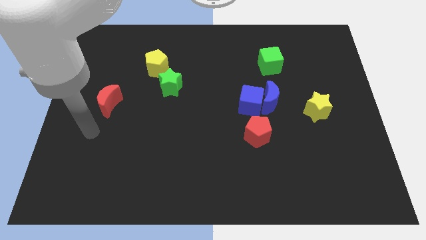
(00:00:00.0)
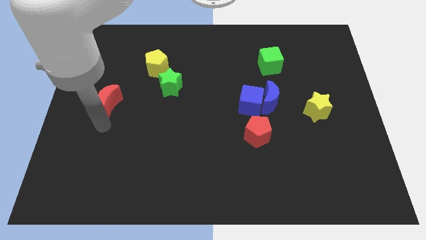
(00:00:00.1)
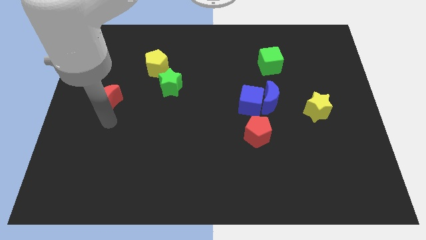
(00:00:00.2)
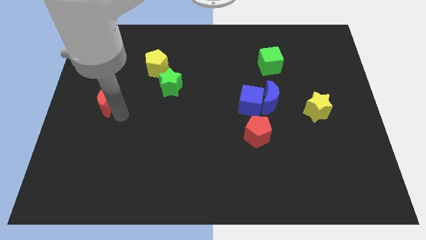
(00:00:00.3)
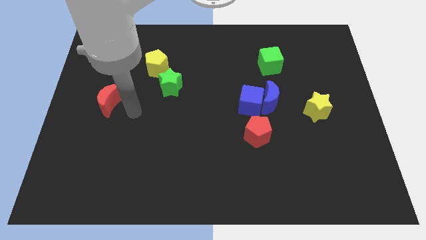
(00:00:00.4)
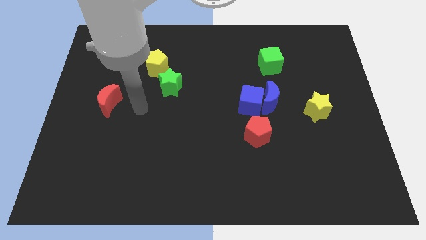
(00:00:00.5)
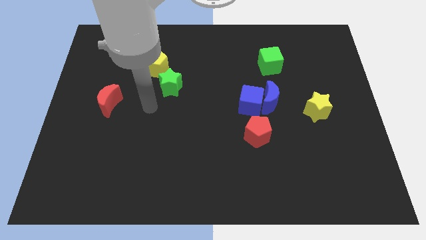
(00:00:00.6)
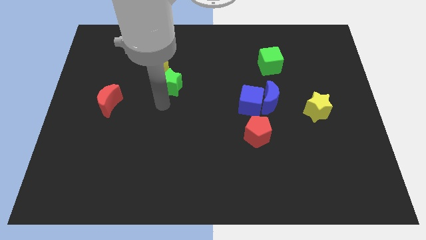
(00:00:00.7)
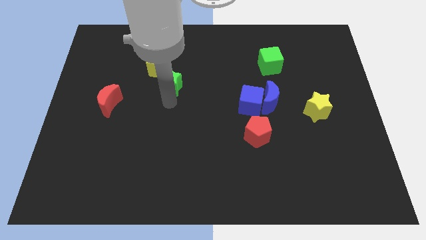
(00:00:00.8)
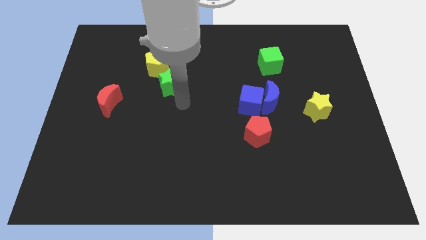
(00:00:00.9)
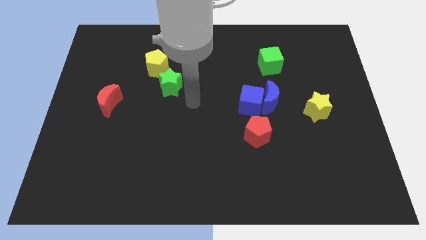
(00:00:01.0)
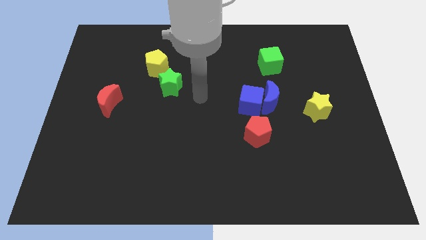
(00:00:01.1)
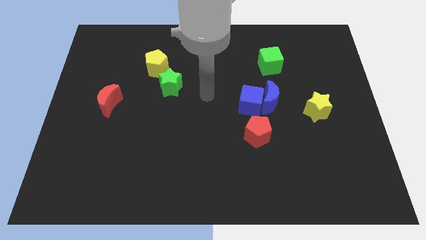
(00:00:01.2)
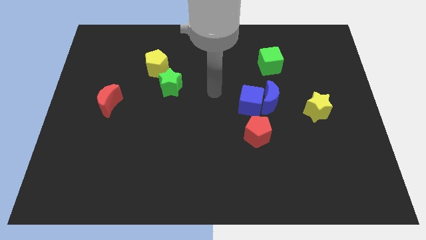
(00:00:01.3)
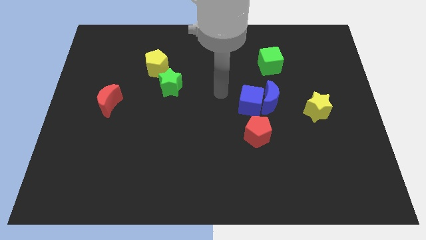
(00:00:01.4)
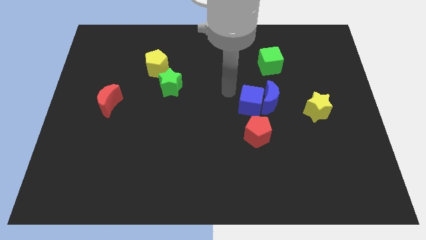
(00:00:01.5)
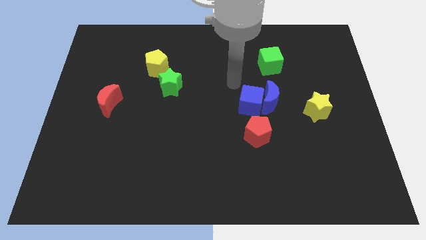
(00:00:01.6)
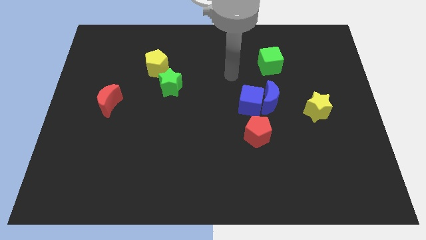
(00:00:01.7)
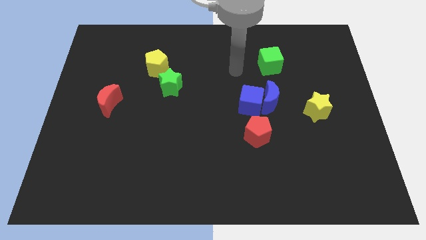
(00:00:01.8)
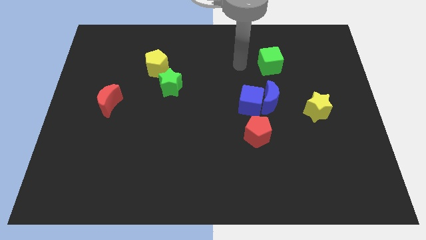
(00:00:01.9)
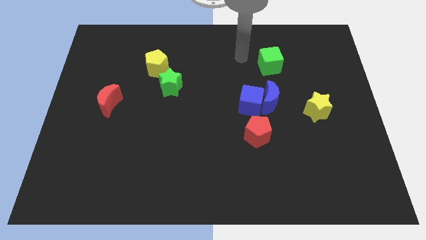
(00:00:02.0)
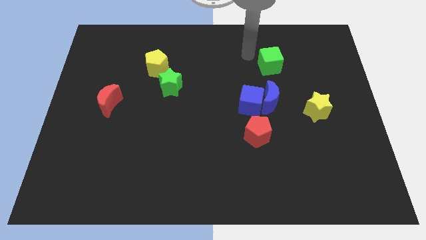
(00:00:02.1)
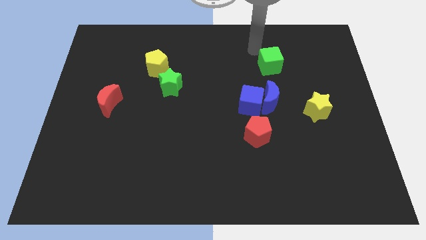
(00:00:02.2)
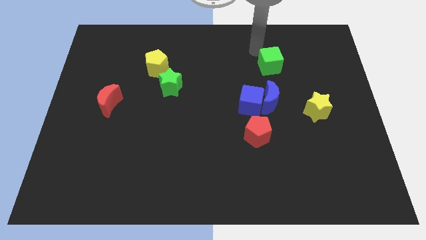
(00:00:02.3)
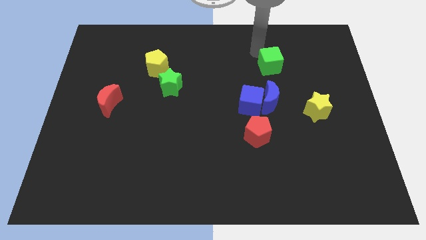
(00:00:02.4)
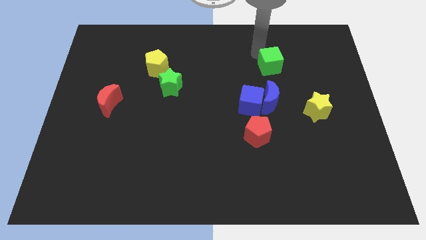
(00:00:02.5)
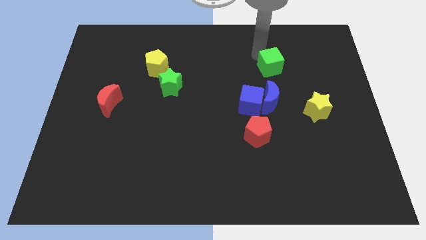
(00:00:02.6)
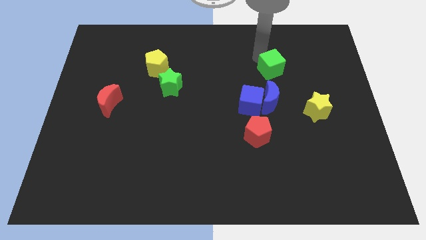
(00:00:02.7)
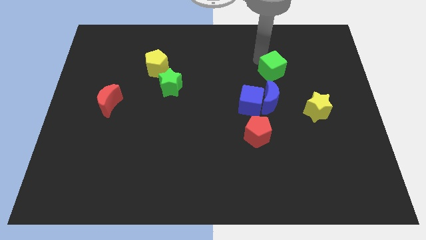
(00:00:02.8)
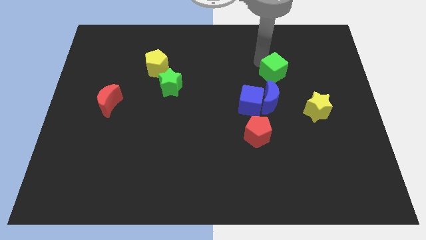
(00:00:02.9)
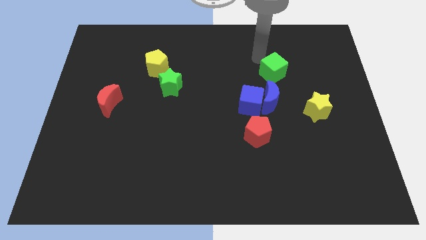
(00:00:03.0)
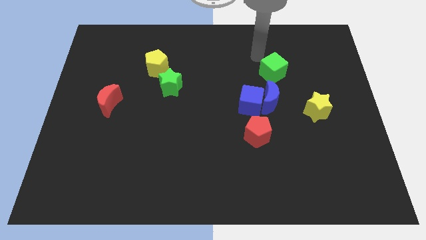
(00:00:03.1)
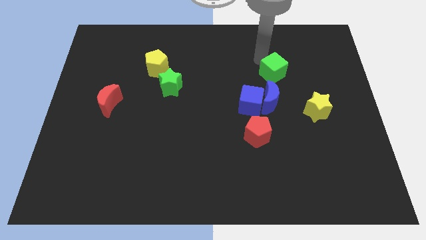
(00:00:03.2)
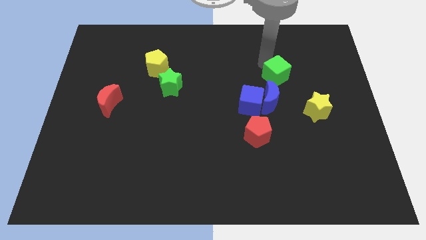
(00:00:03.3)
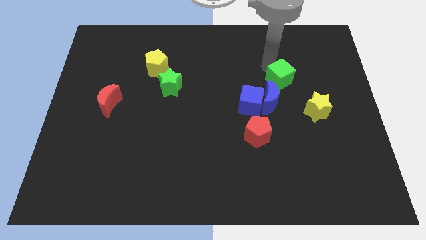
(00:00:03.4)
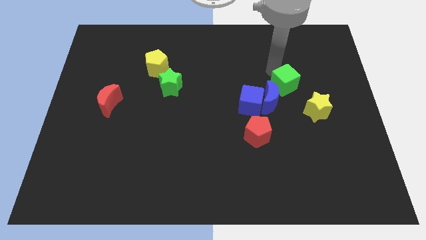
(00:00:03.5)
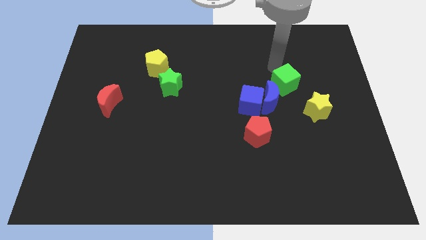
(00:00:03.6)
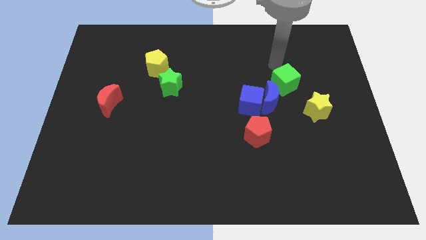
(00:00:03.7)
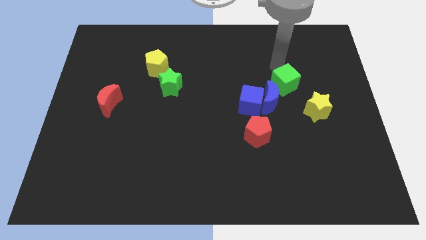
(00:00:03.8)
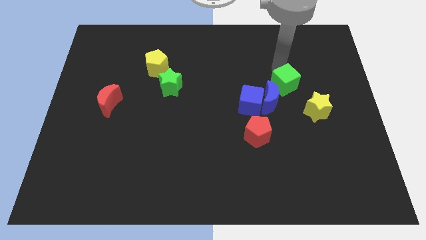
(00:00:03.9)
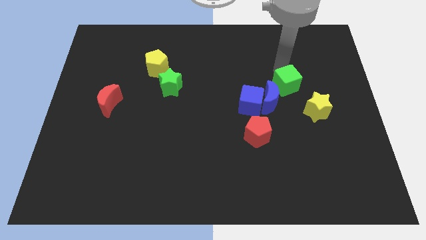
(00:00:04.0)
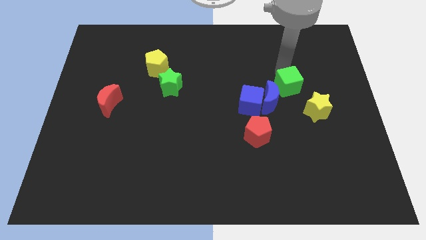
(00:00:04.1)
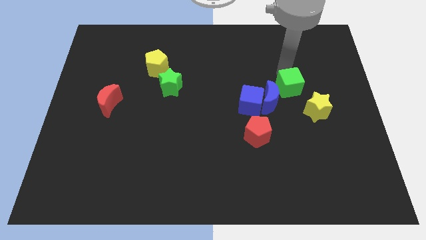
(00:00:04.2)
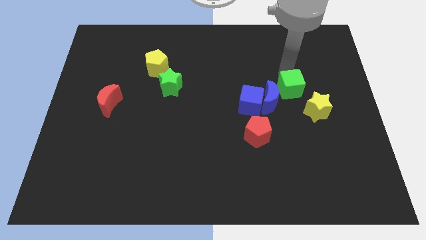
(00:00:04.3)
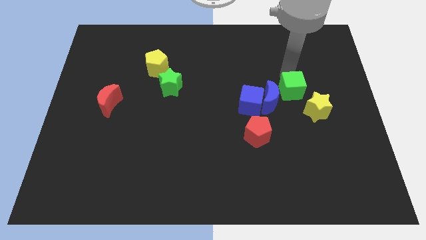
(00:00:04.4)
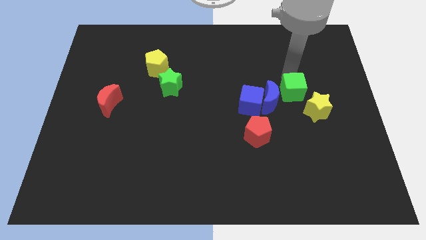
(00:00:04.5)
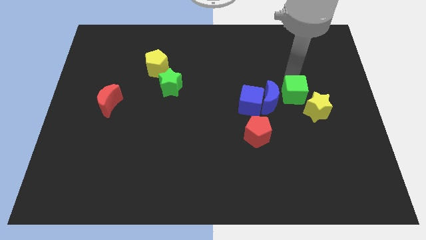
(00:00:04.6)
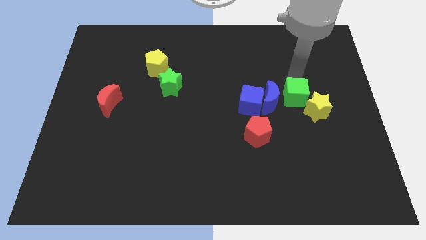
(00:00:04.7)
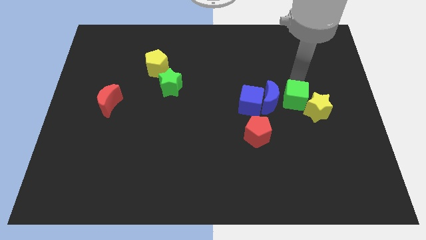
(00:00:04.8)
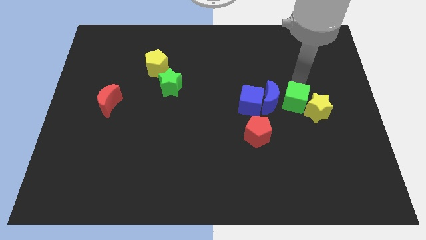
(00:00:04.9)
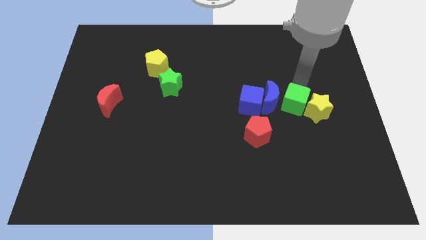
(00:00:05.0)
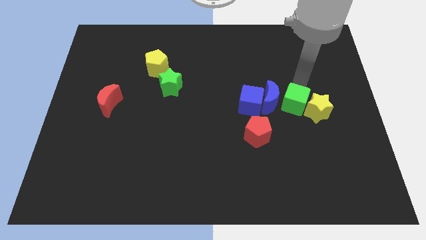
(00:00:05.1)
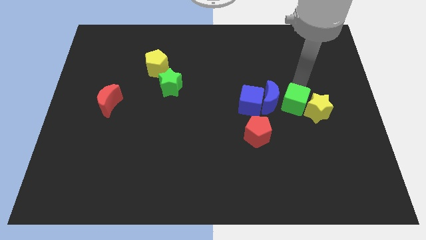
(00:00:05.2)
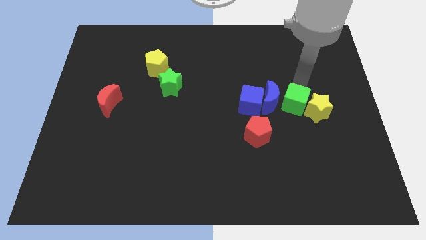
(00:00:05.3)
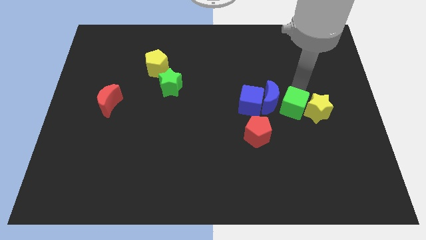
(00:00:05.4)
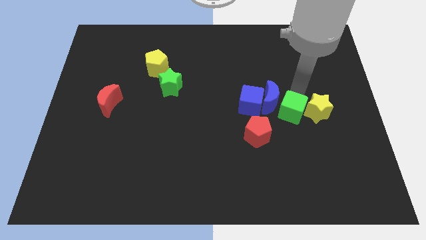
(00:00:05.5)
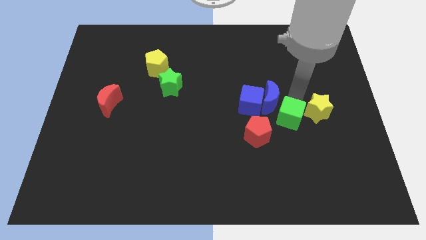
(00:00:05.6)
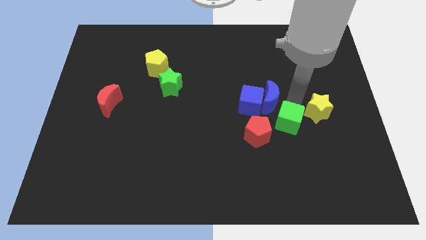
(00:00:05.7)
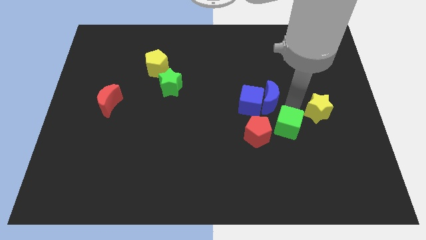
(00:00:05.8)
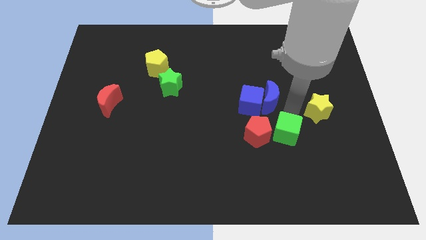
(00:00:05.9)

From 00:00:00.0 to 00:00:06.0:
slide the green cube downwards

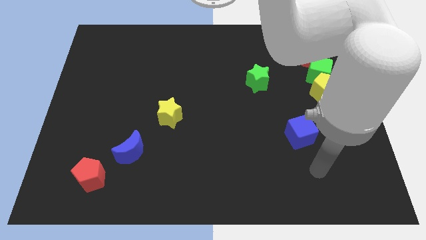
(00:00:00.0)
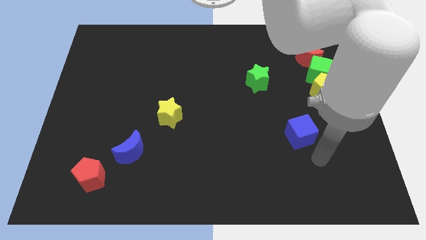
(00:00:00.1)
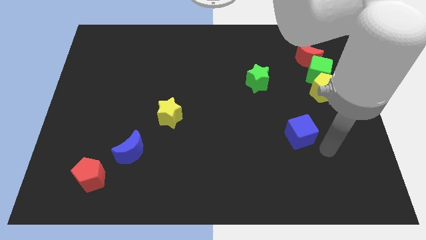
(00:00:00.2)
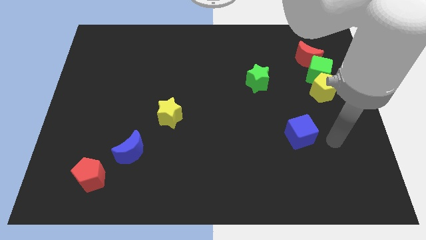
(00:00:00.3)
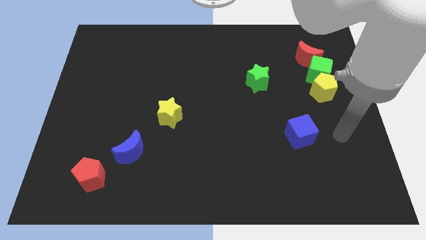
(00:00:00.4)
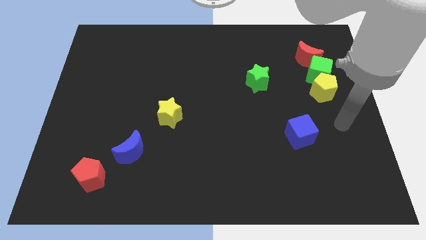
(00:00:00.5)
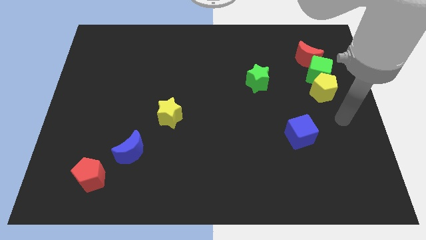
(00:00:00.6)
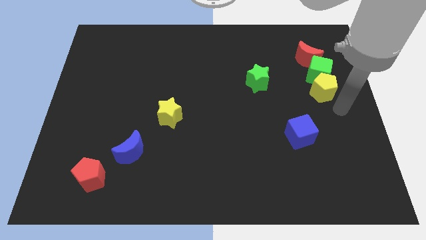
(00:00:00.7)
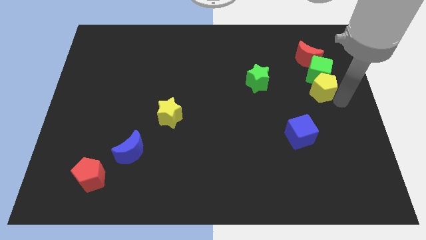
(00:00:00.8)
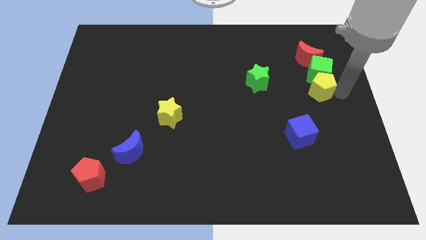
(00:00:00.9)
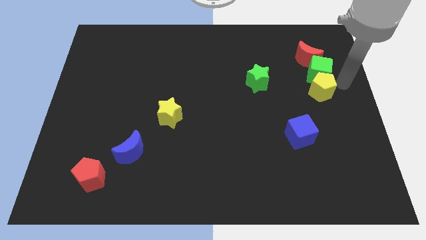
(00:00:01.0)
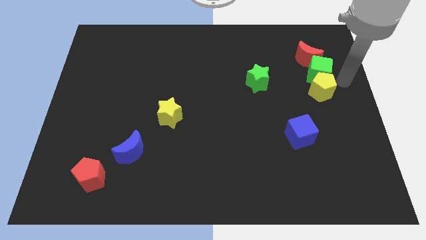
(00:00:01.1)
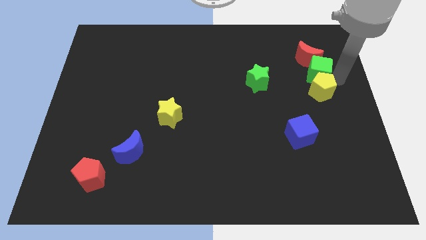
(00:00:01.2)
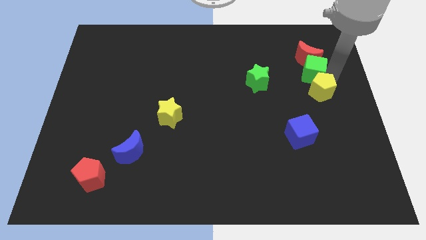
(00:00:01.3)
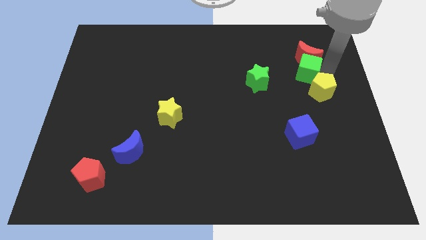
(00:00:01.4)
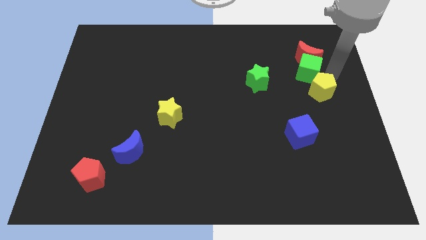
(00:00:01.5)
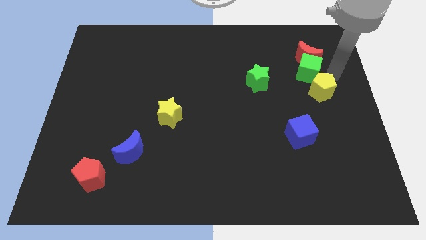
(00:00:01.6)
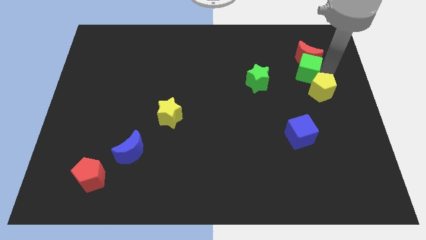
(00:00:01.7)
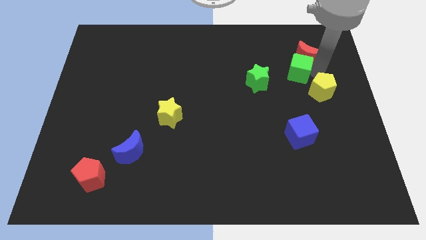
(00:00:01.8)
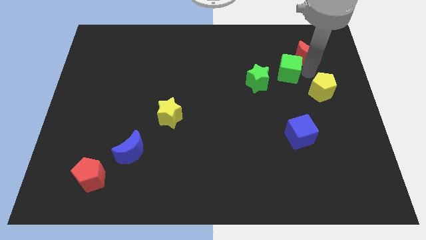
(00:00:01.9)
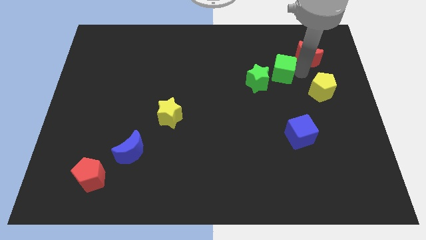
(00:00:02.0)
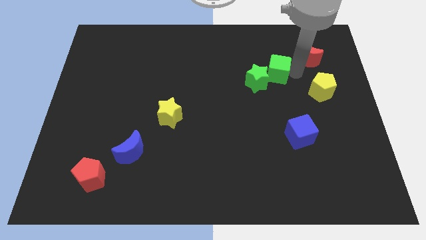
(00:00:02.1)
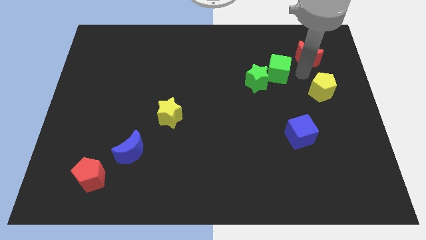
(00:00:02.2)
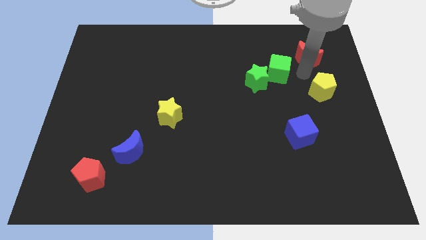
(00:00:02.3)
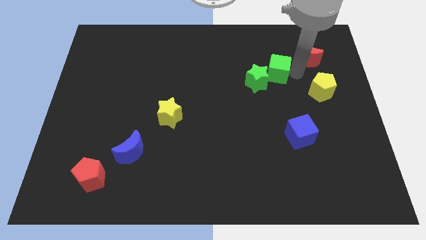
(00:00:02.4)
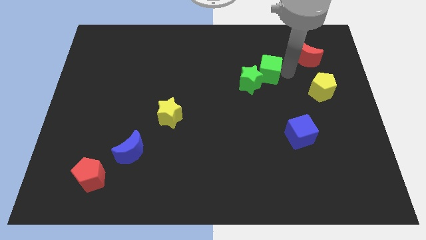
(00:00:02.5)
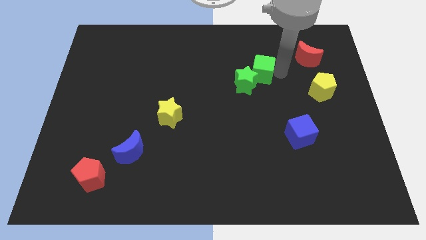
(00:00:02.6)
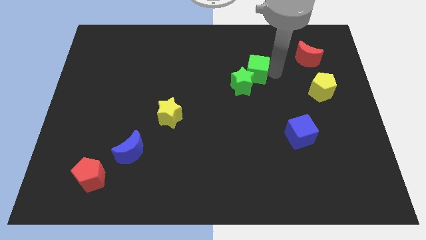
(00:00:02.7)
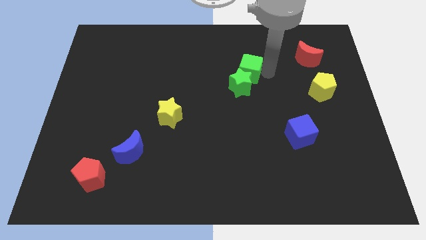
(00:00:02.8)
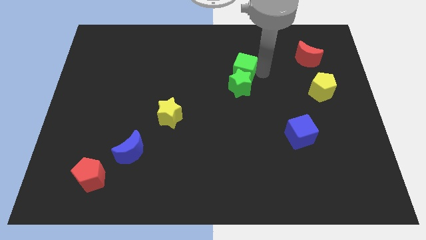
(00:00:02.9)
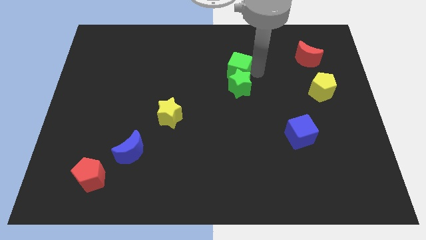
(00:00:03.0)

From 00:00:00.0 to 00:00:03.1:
slide the green cube to the left
